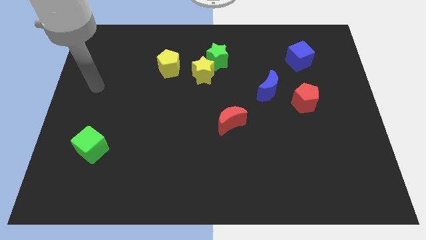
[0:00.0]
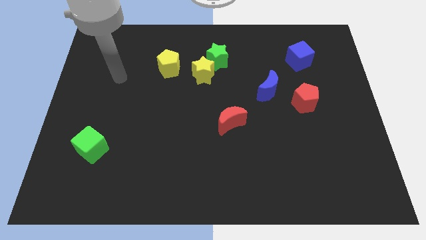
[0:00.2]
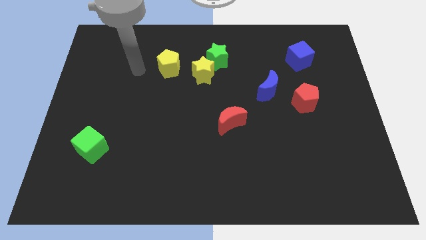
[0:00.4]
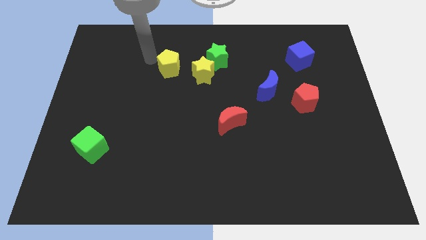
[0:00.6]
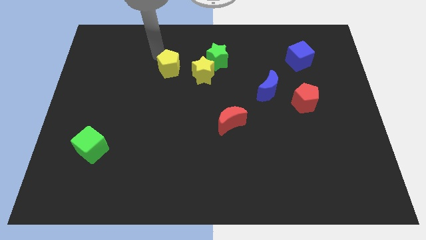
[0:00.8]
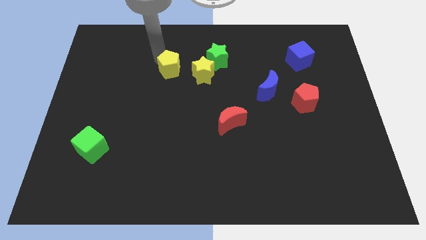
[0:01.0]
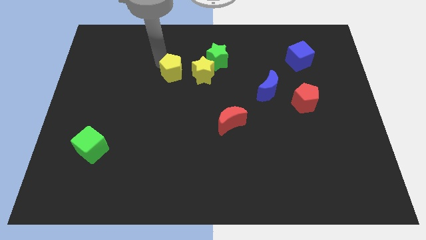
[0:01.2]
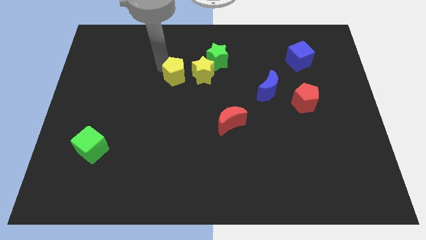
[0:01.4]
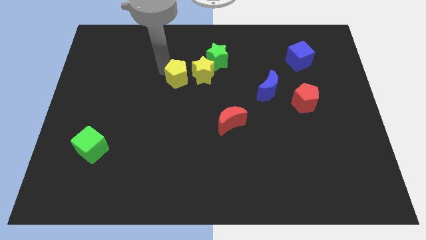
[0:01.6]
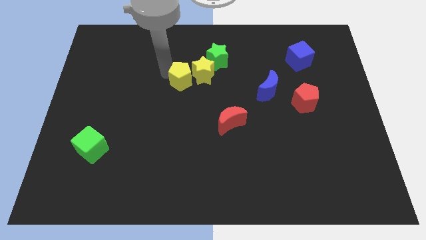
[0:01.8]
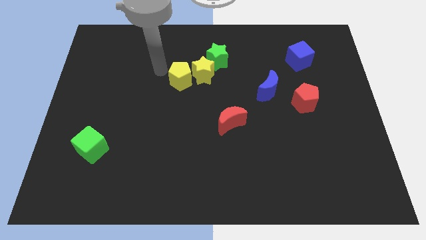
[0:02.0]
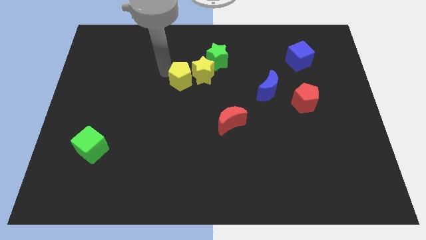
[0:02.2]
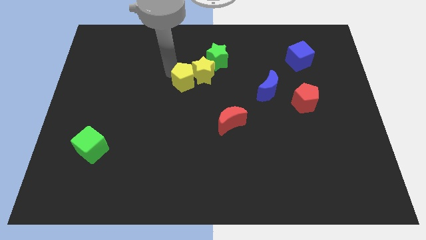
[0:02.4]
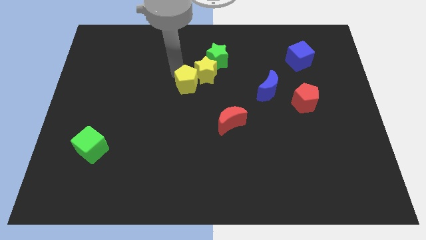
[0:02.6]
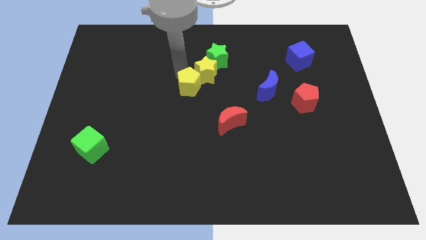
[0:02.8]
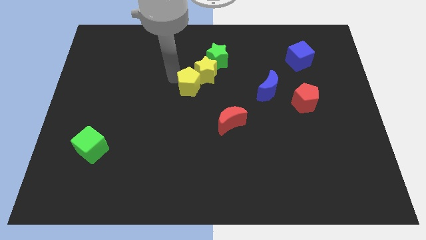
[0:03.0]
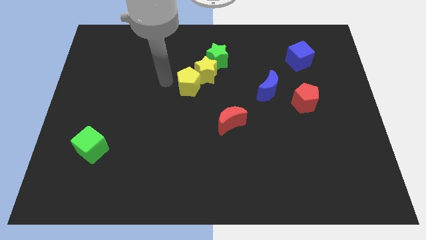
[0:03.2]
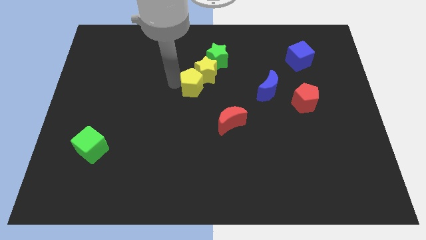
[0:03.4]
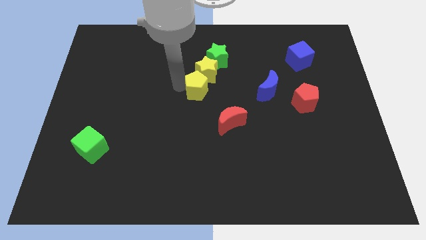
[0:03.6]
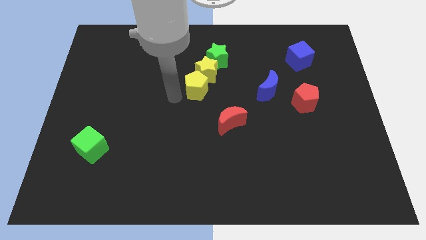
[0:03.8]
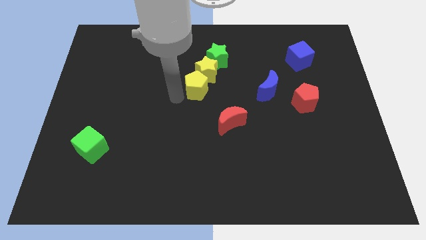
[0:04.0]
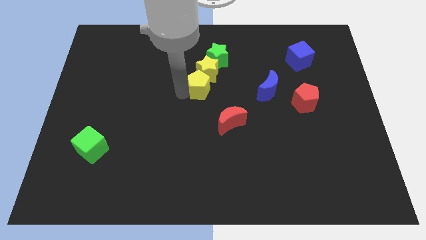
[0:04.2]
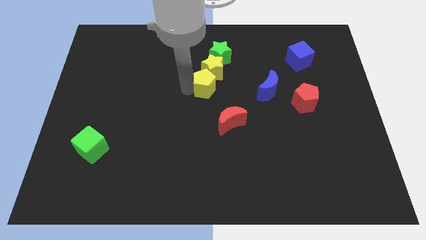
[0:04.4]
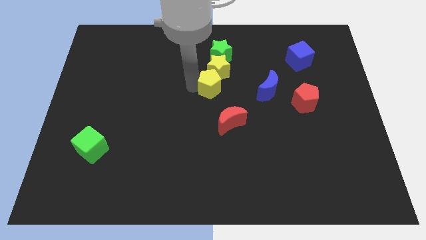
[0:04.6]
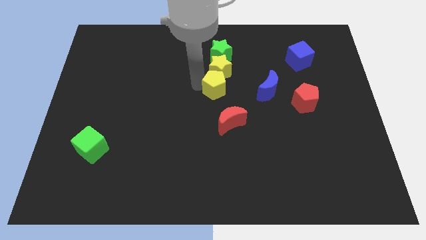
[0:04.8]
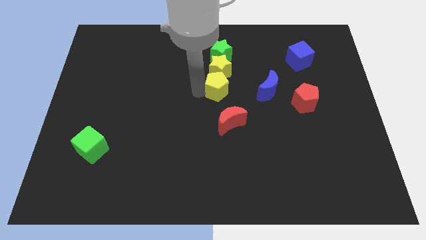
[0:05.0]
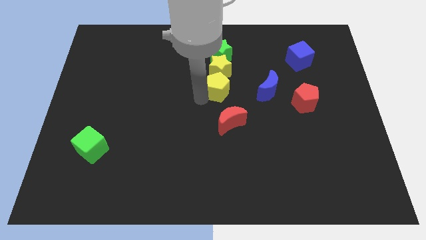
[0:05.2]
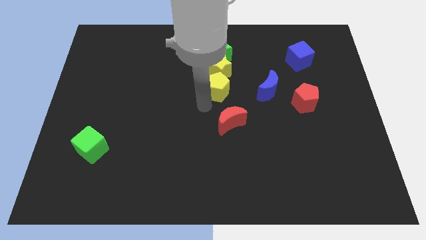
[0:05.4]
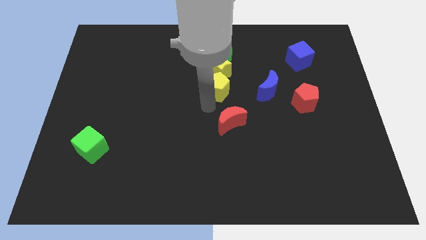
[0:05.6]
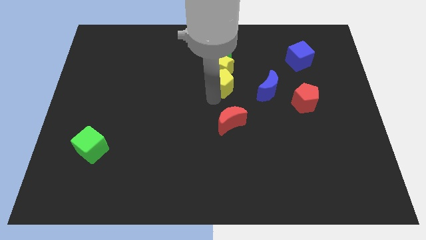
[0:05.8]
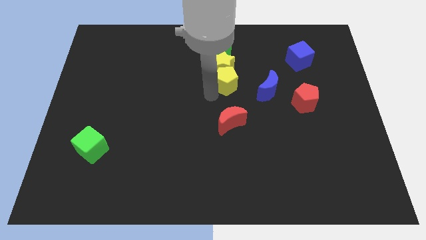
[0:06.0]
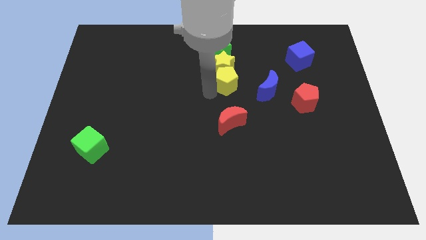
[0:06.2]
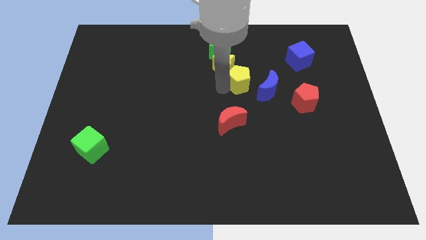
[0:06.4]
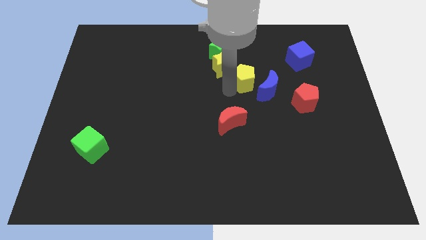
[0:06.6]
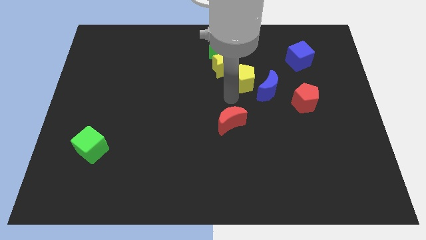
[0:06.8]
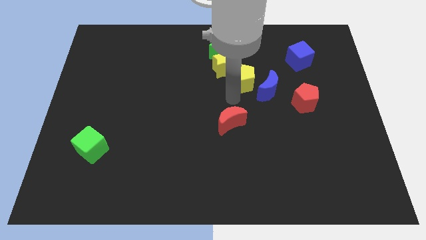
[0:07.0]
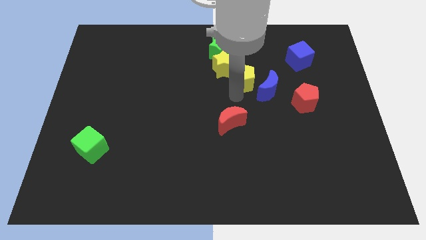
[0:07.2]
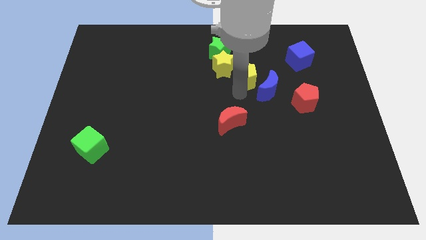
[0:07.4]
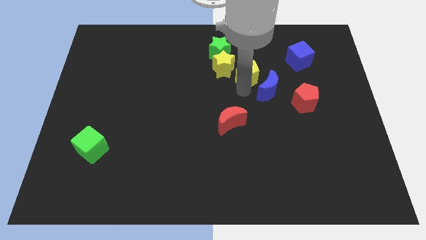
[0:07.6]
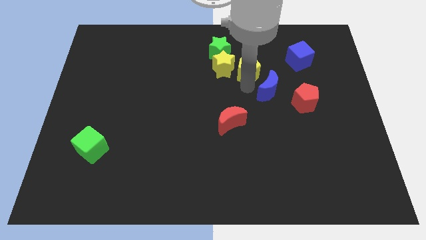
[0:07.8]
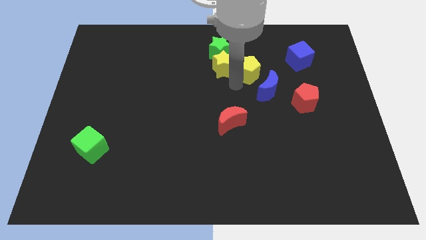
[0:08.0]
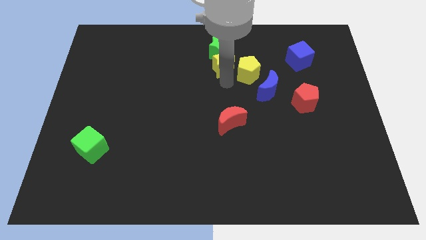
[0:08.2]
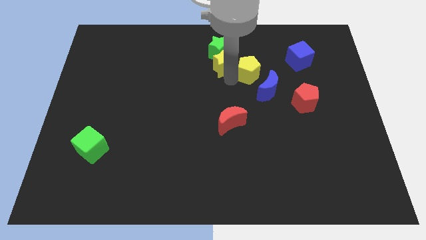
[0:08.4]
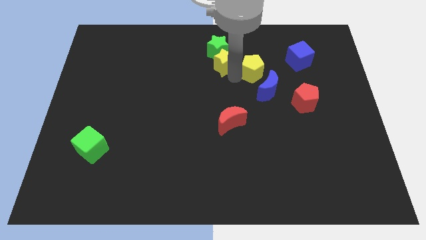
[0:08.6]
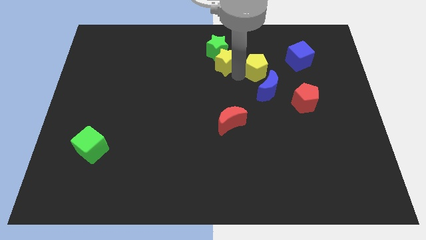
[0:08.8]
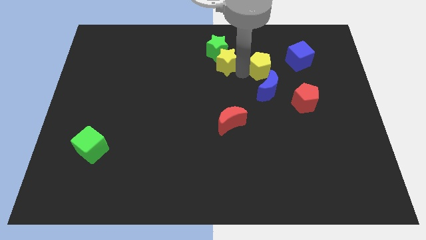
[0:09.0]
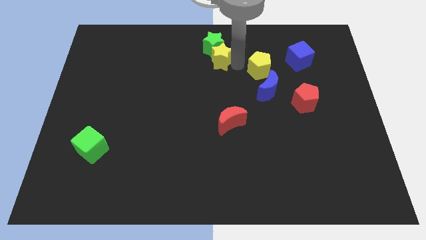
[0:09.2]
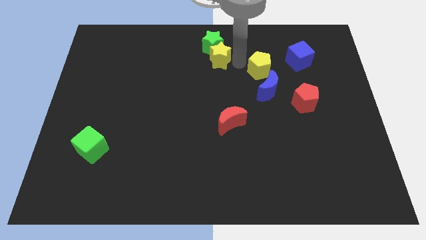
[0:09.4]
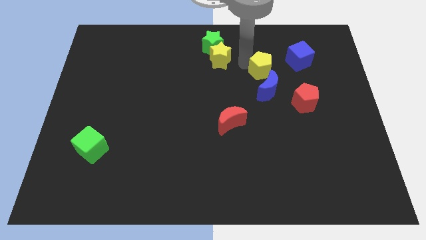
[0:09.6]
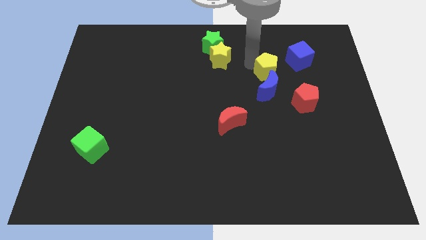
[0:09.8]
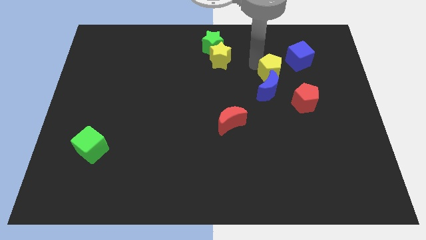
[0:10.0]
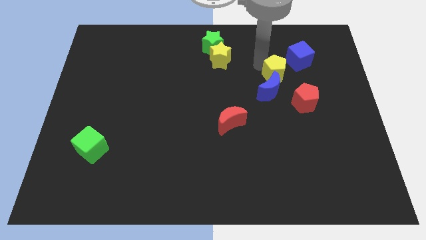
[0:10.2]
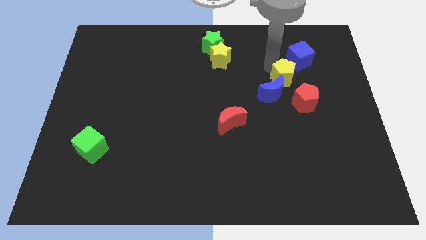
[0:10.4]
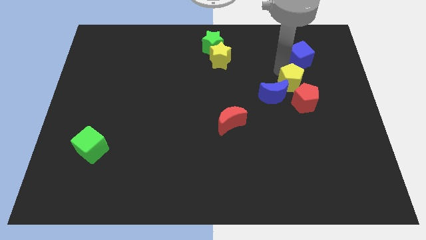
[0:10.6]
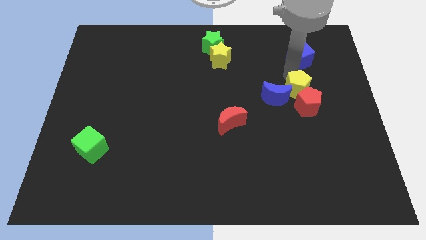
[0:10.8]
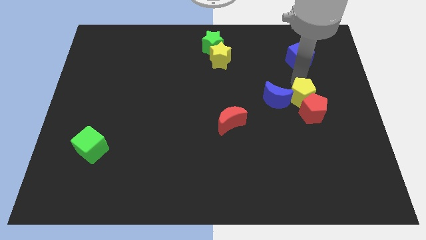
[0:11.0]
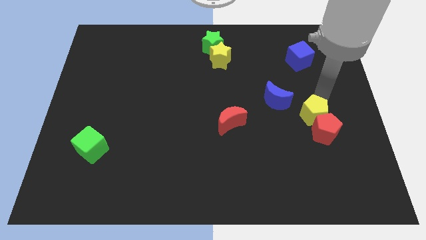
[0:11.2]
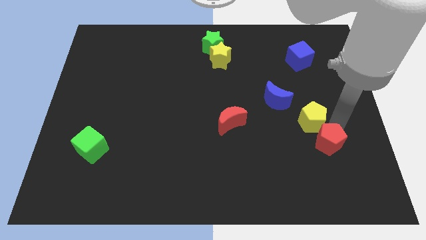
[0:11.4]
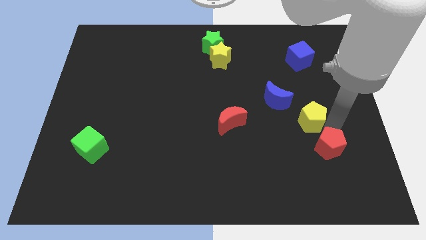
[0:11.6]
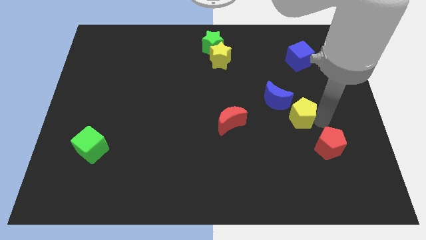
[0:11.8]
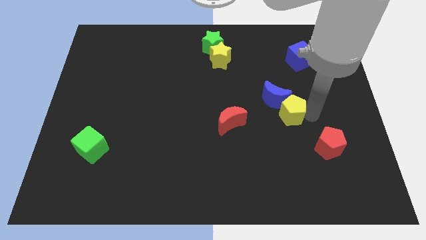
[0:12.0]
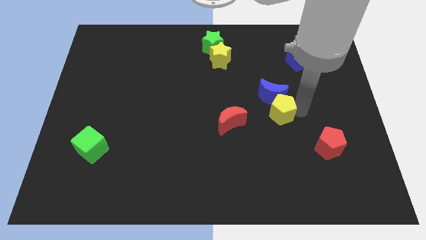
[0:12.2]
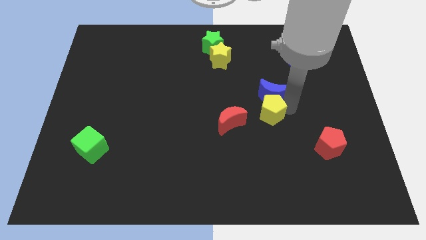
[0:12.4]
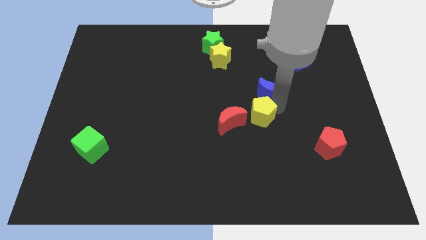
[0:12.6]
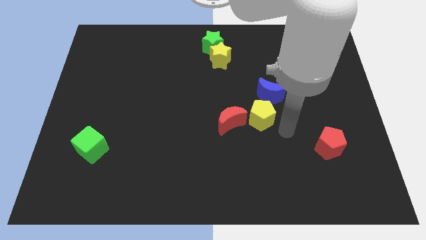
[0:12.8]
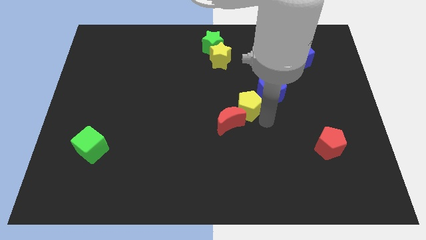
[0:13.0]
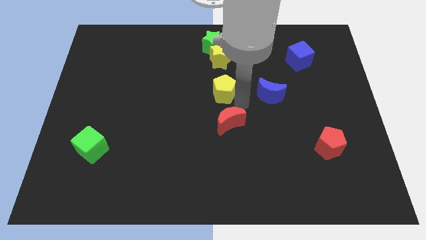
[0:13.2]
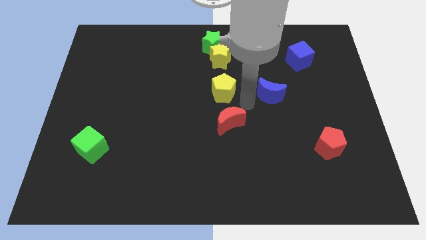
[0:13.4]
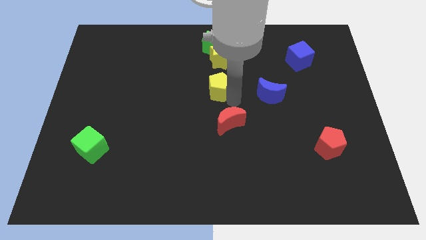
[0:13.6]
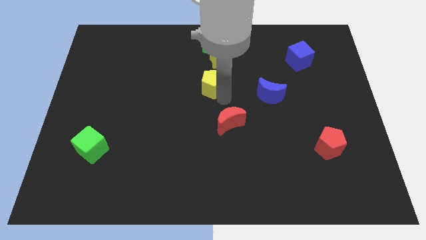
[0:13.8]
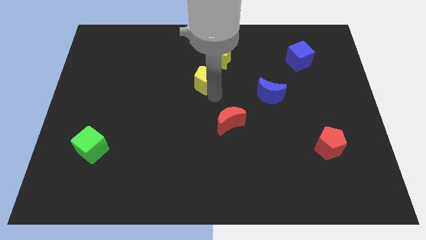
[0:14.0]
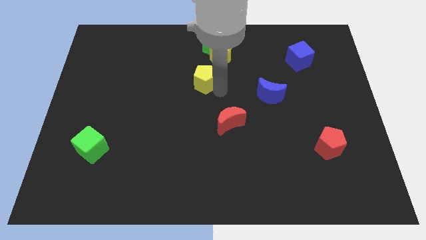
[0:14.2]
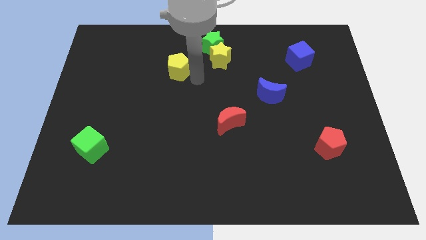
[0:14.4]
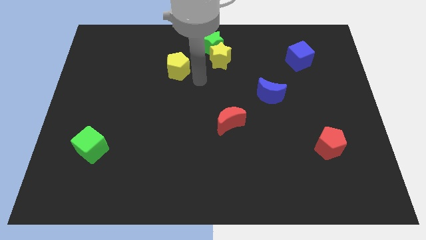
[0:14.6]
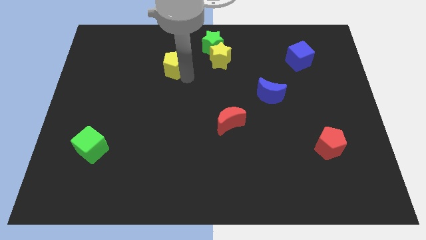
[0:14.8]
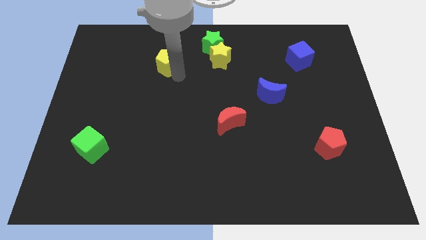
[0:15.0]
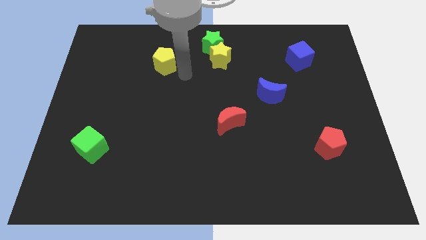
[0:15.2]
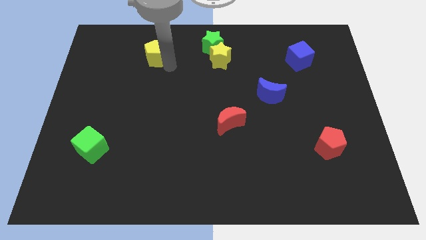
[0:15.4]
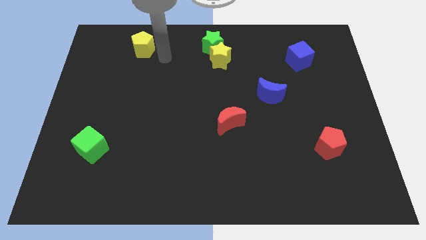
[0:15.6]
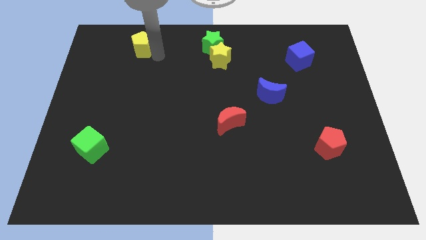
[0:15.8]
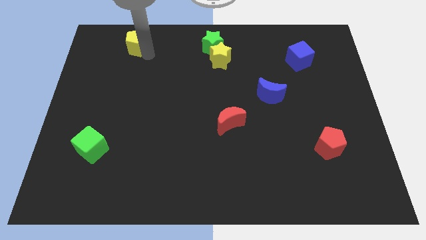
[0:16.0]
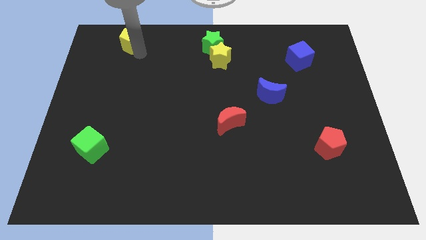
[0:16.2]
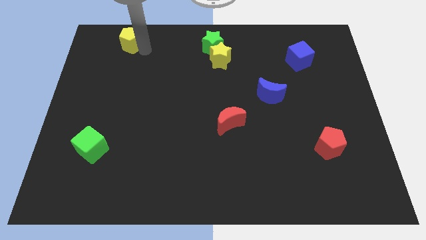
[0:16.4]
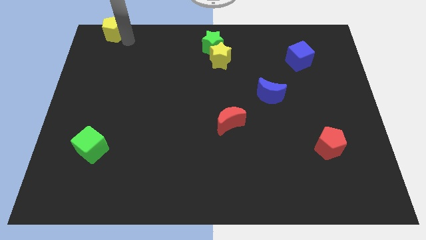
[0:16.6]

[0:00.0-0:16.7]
slide the yellow pentagon to the top left
